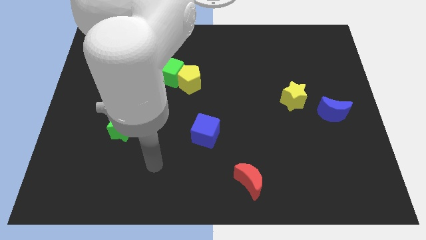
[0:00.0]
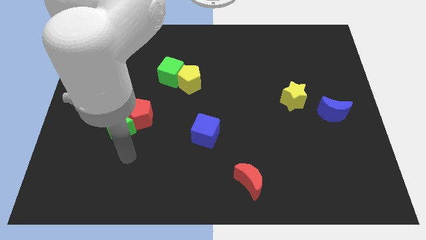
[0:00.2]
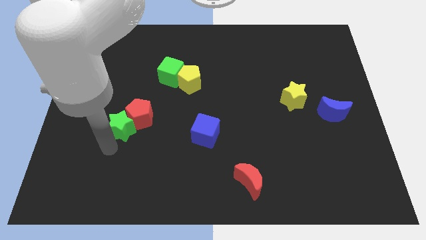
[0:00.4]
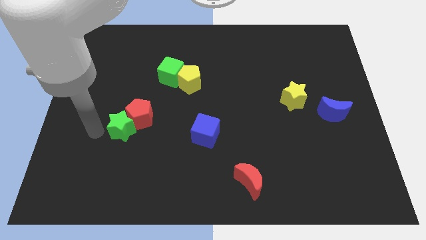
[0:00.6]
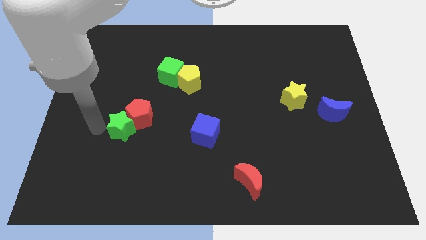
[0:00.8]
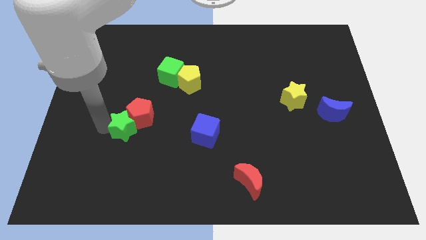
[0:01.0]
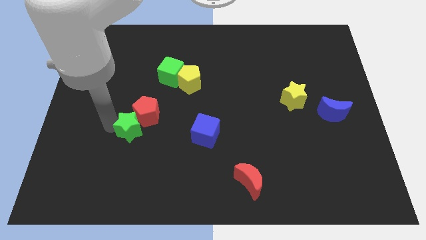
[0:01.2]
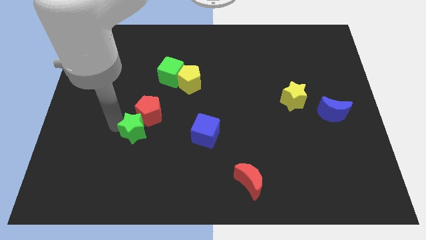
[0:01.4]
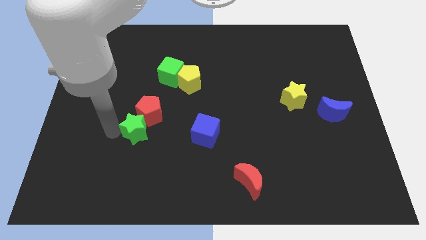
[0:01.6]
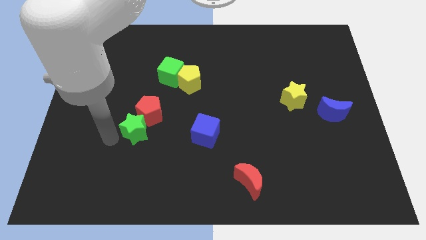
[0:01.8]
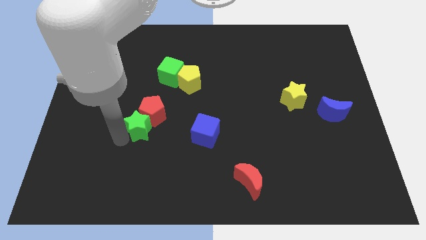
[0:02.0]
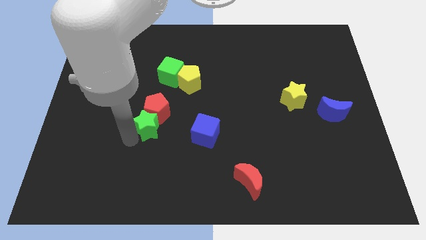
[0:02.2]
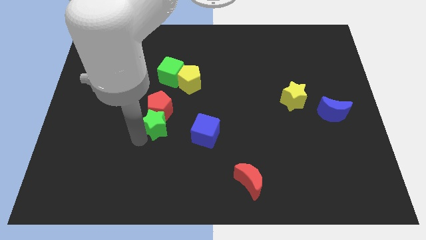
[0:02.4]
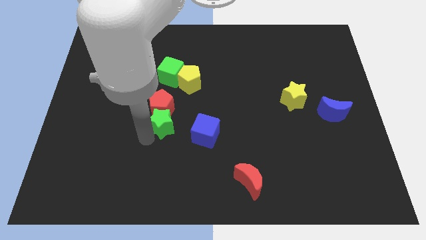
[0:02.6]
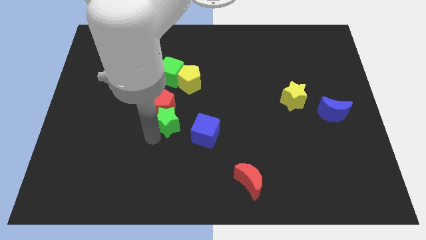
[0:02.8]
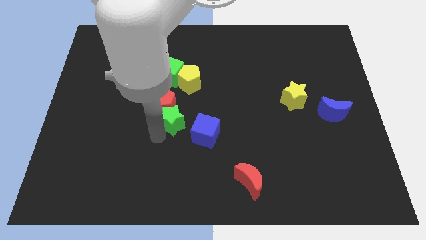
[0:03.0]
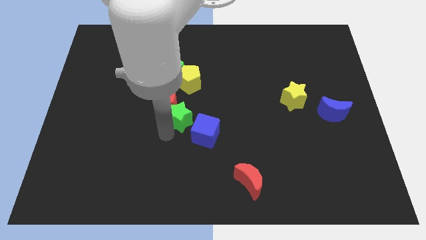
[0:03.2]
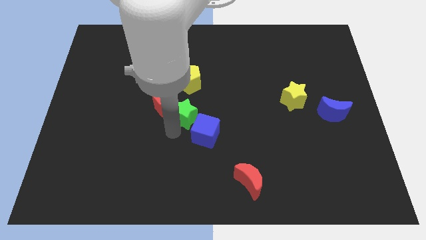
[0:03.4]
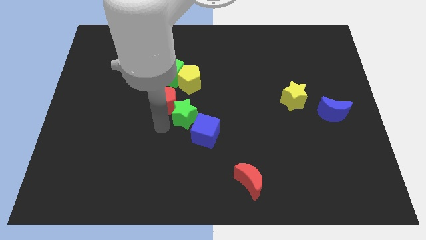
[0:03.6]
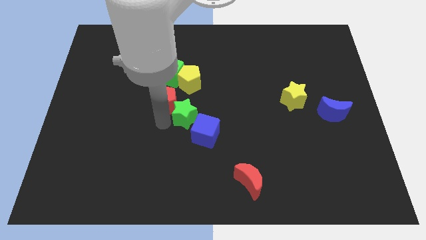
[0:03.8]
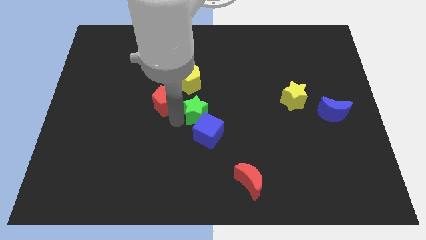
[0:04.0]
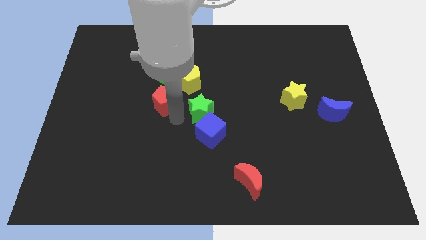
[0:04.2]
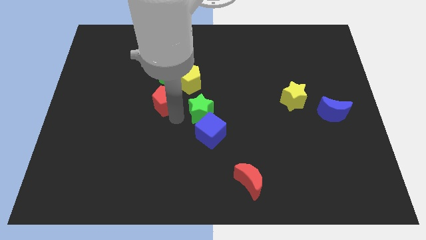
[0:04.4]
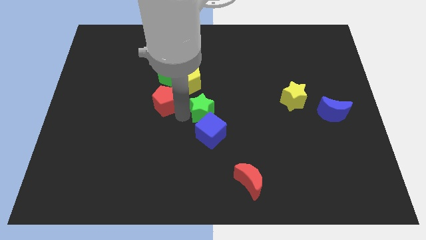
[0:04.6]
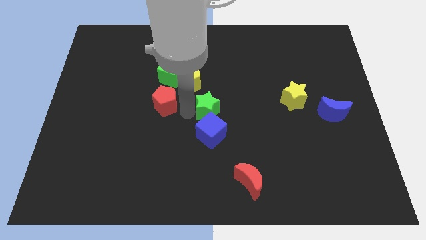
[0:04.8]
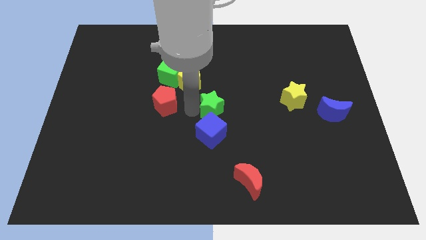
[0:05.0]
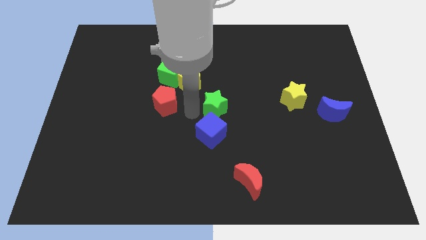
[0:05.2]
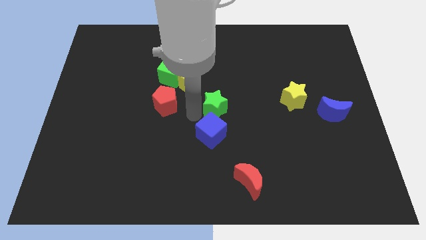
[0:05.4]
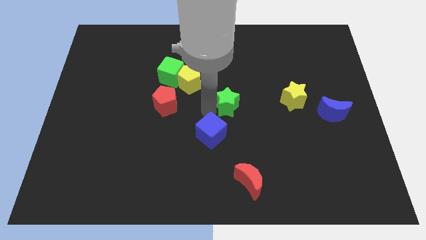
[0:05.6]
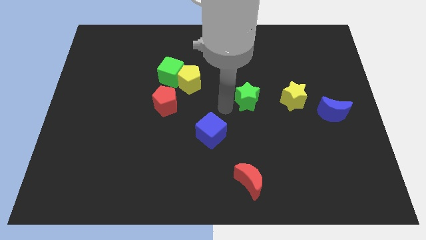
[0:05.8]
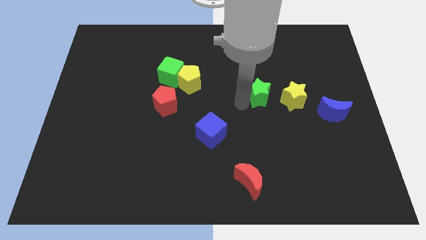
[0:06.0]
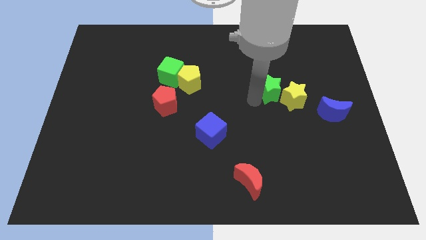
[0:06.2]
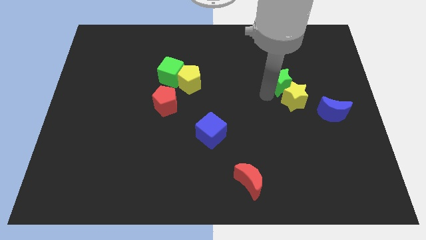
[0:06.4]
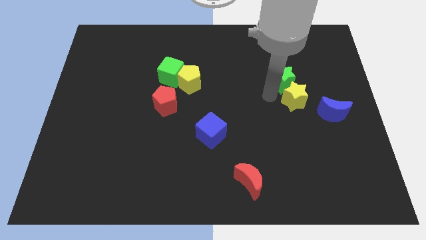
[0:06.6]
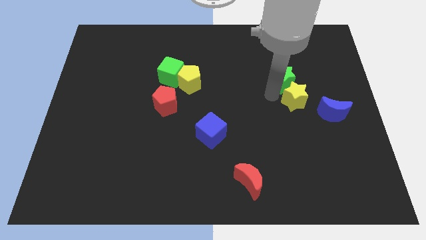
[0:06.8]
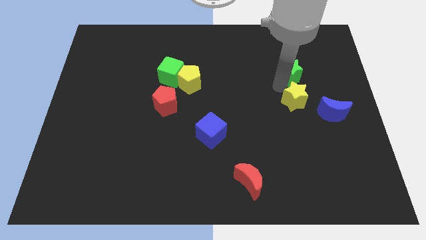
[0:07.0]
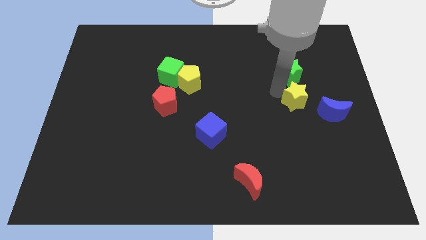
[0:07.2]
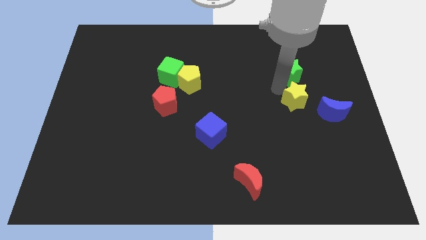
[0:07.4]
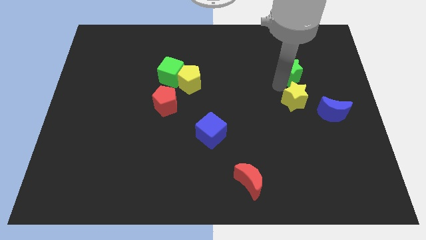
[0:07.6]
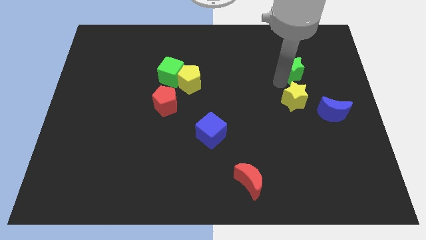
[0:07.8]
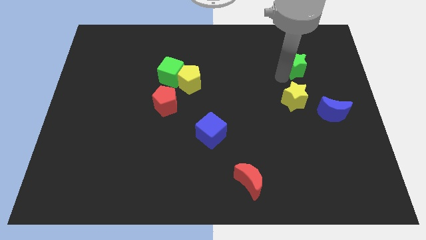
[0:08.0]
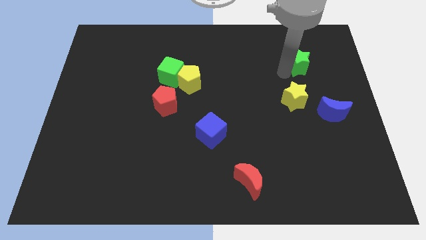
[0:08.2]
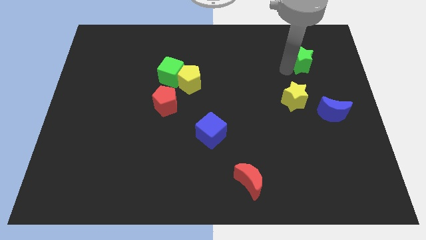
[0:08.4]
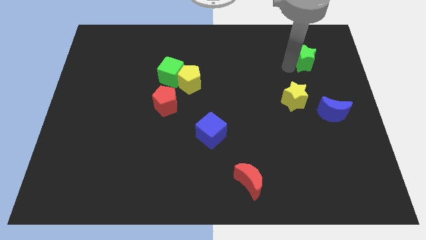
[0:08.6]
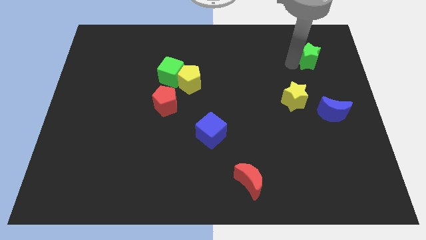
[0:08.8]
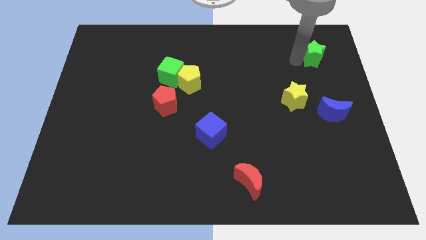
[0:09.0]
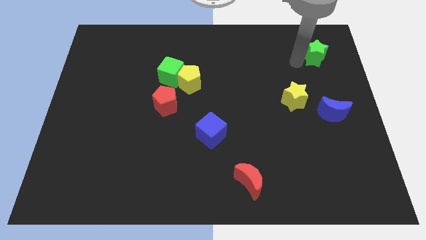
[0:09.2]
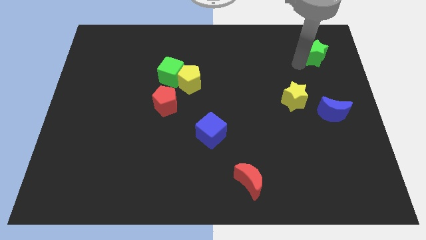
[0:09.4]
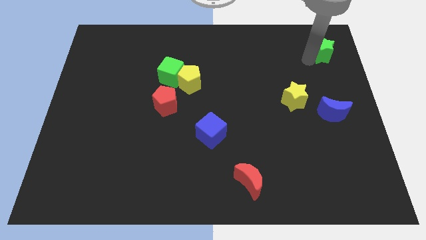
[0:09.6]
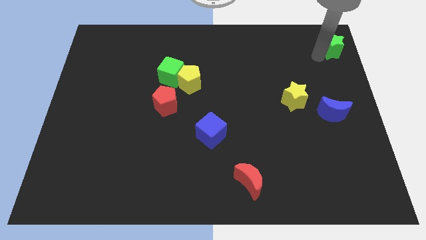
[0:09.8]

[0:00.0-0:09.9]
push the green star to the upper right corner

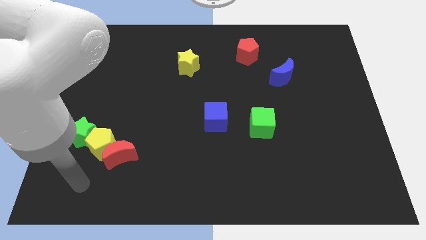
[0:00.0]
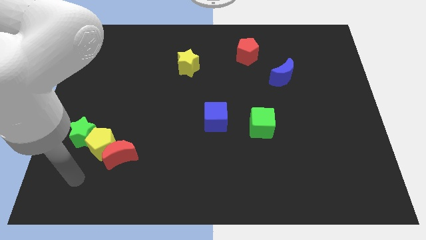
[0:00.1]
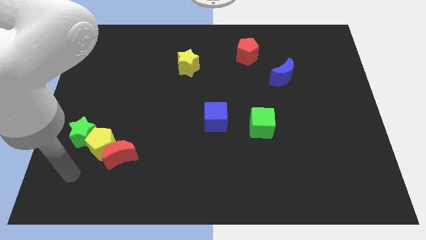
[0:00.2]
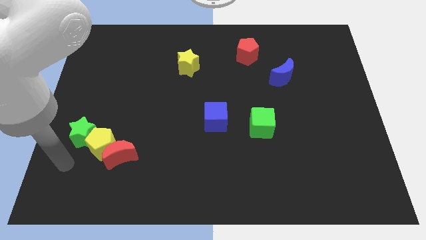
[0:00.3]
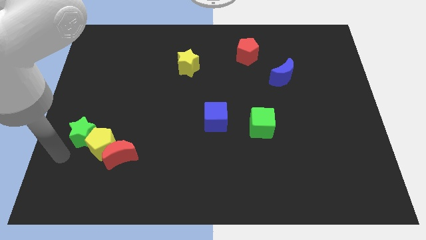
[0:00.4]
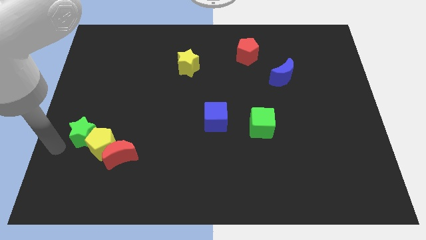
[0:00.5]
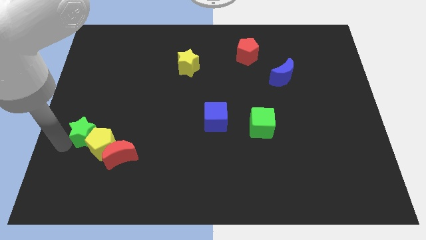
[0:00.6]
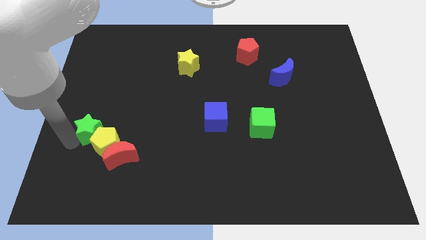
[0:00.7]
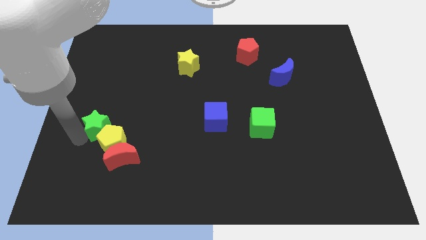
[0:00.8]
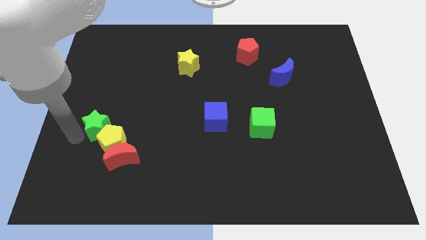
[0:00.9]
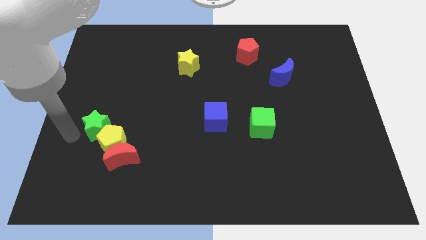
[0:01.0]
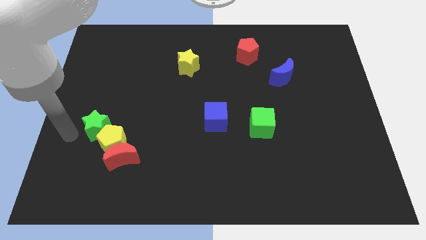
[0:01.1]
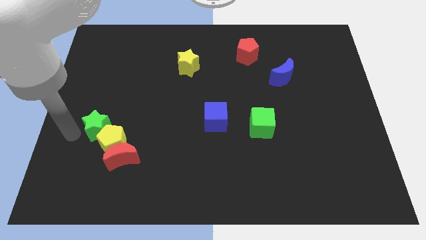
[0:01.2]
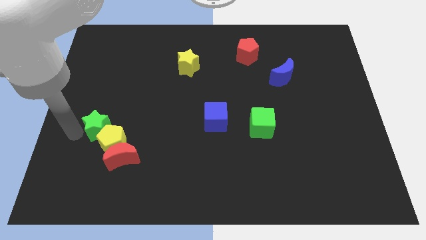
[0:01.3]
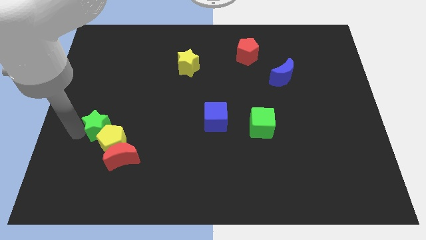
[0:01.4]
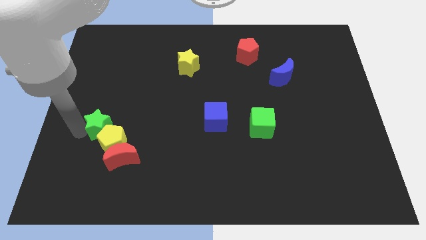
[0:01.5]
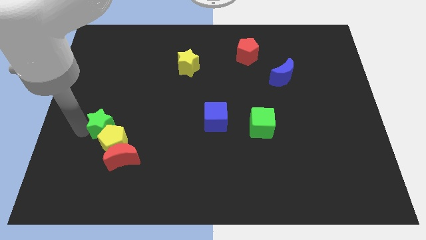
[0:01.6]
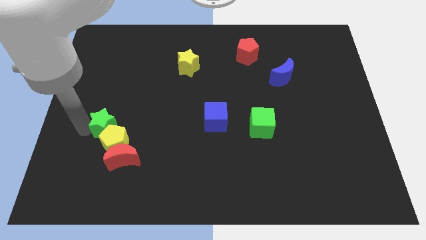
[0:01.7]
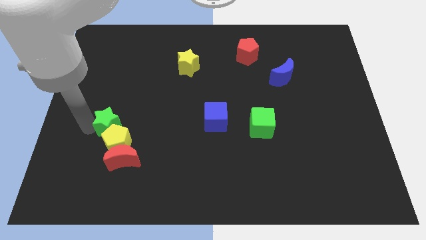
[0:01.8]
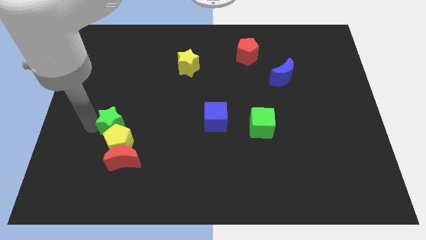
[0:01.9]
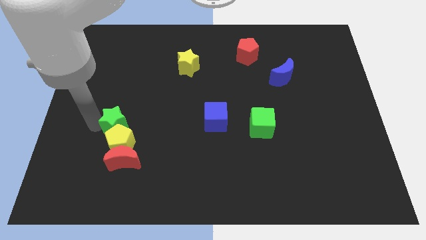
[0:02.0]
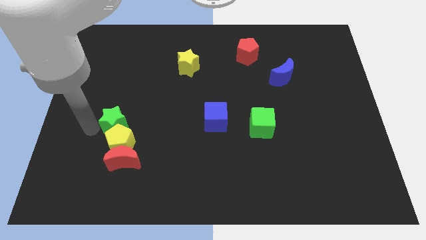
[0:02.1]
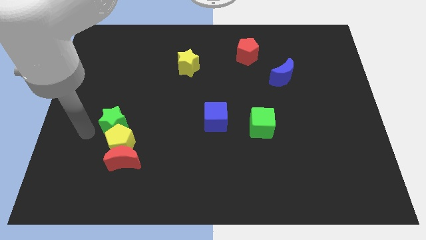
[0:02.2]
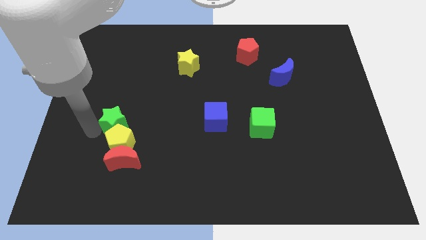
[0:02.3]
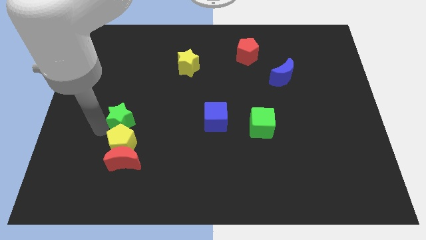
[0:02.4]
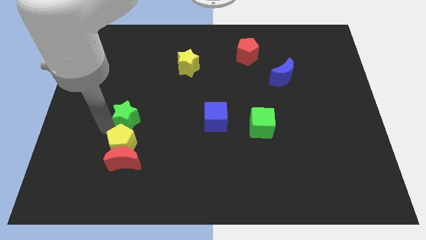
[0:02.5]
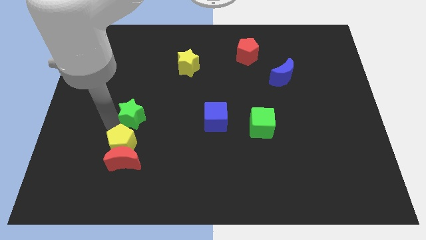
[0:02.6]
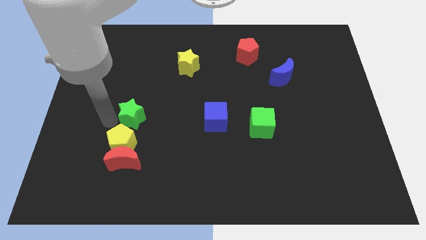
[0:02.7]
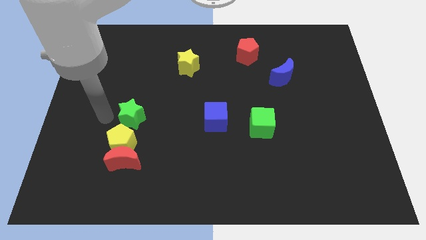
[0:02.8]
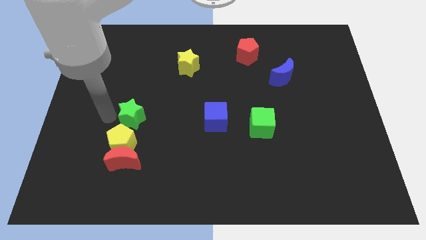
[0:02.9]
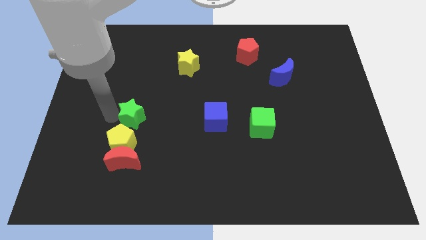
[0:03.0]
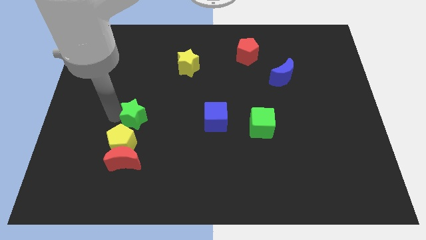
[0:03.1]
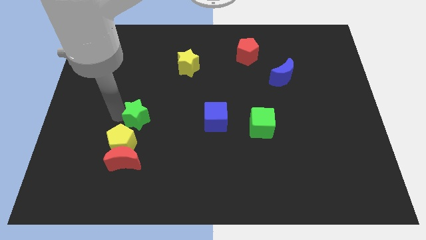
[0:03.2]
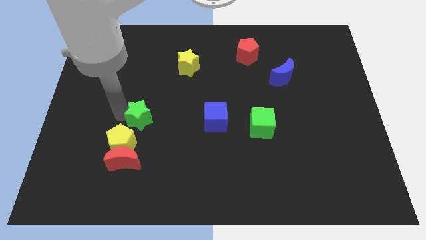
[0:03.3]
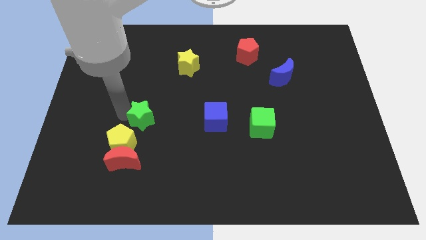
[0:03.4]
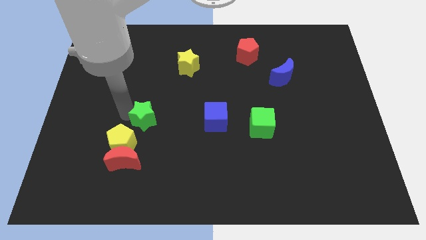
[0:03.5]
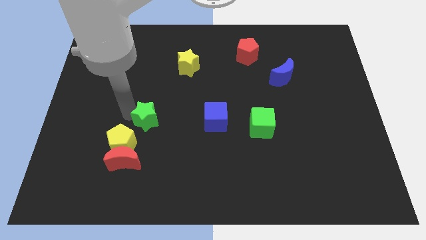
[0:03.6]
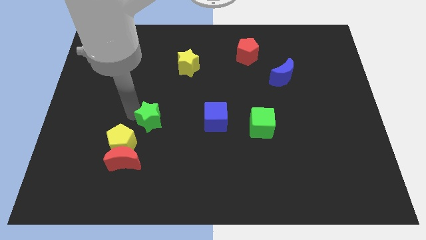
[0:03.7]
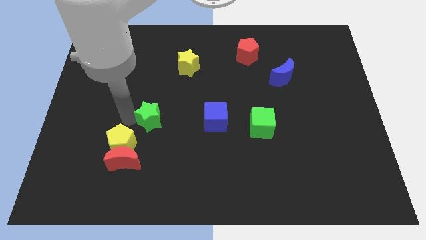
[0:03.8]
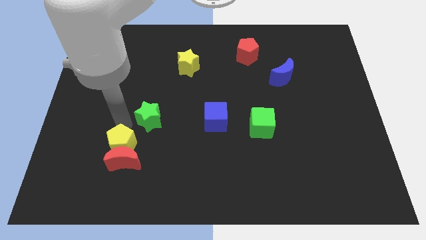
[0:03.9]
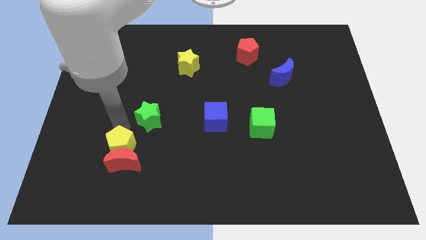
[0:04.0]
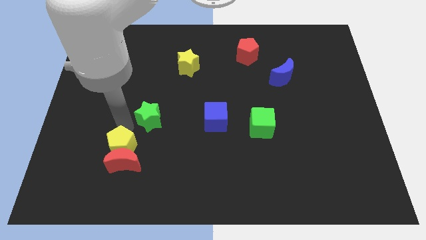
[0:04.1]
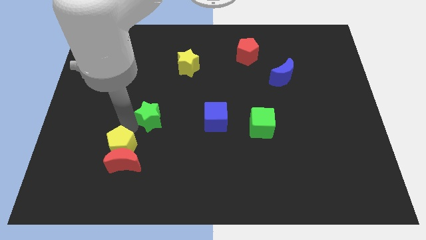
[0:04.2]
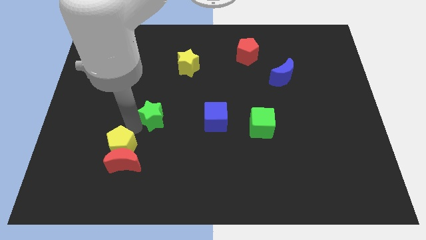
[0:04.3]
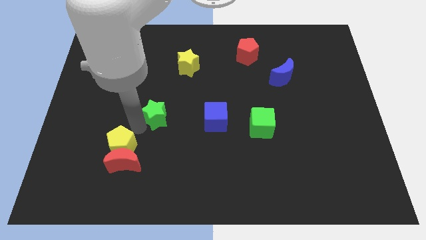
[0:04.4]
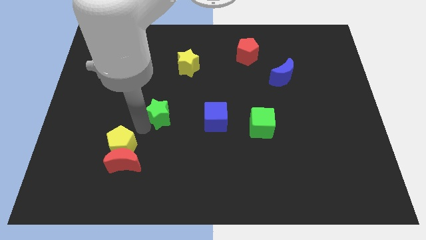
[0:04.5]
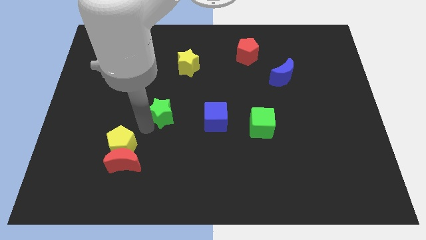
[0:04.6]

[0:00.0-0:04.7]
slide the green star to the middle of the board
